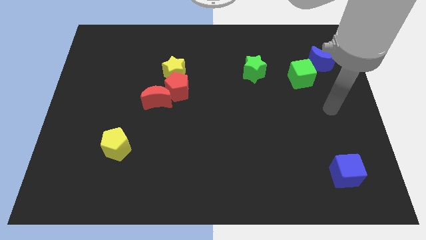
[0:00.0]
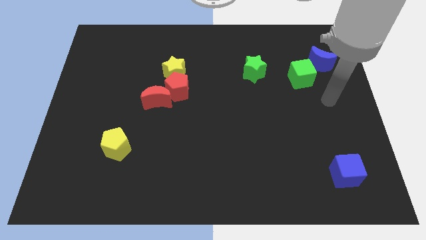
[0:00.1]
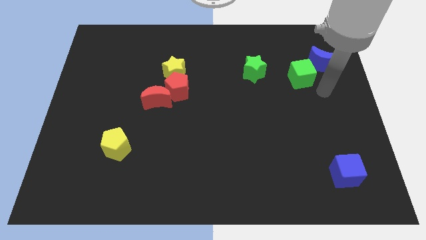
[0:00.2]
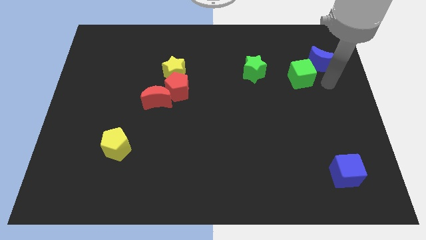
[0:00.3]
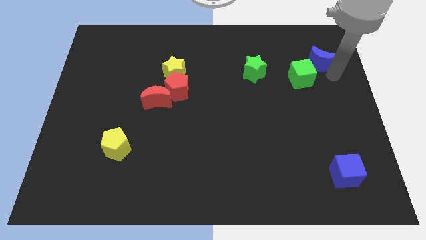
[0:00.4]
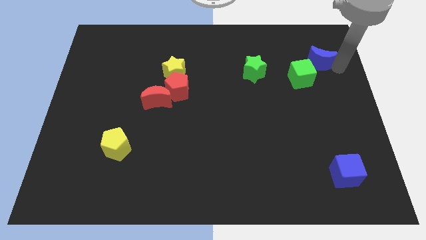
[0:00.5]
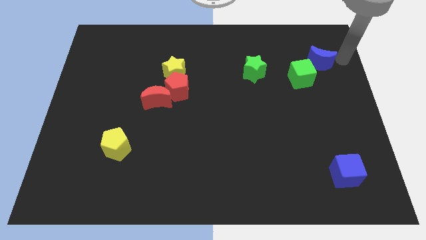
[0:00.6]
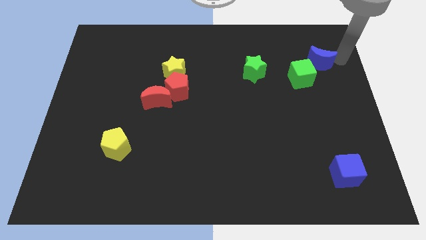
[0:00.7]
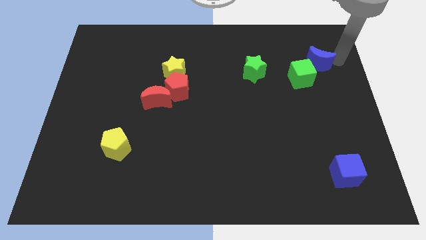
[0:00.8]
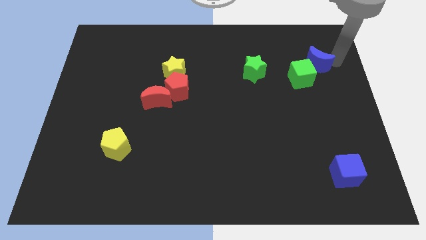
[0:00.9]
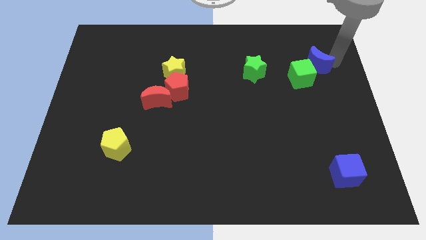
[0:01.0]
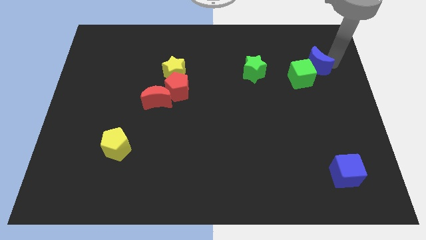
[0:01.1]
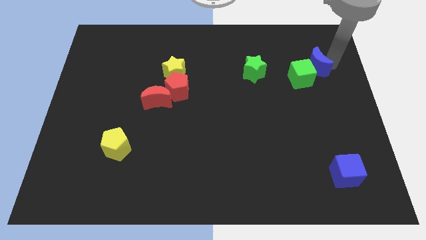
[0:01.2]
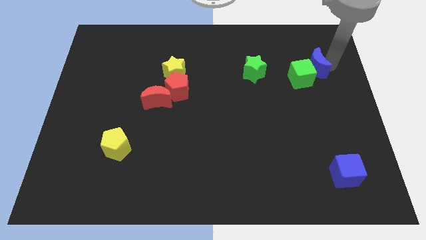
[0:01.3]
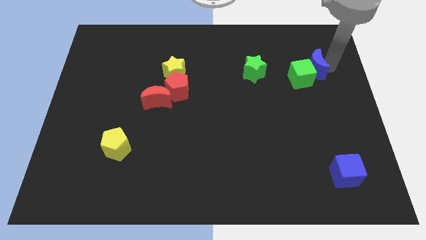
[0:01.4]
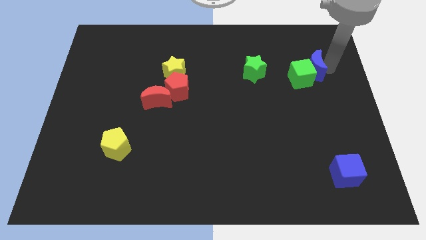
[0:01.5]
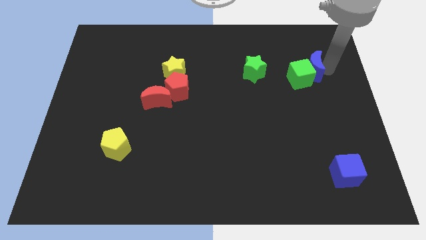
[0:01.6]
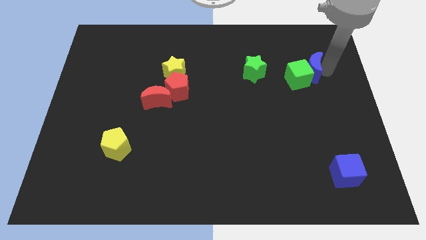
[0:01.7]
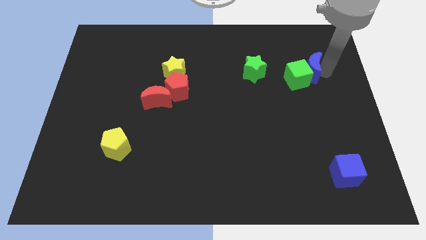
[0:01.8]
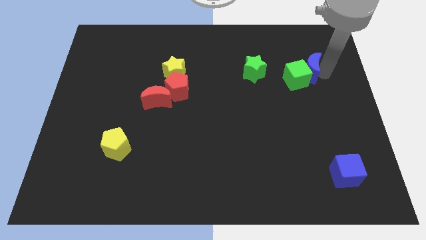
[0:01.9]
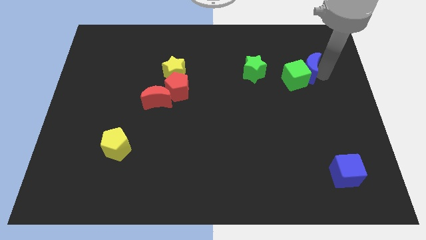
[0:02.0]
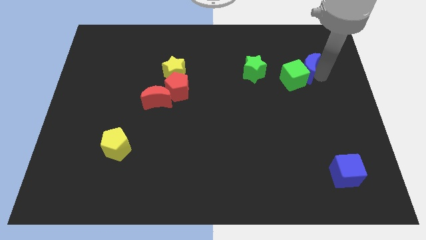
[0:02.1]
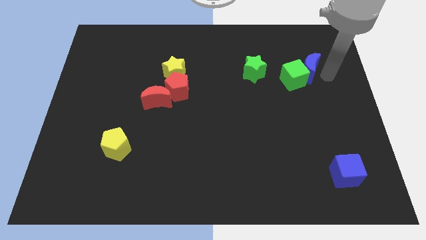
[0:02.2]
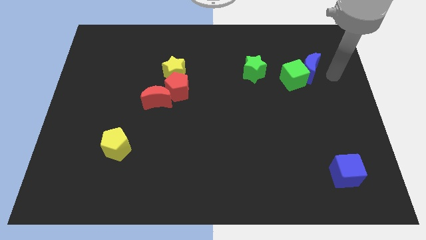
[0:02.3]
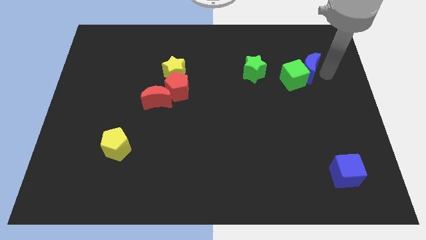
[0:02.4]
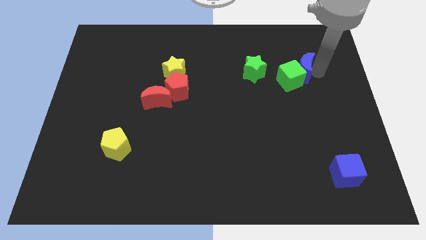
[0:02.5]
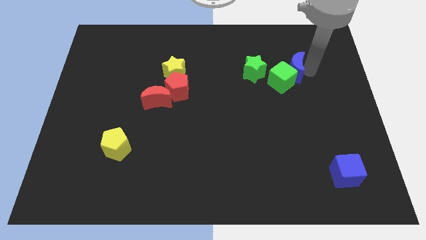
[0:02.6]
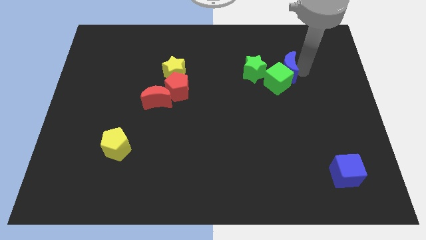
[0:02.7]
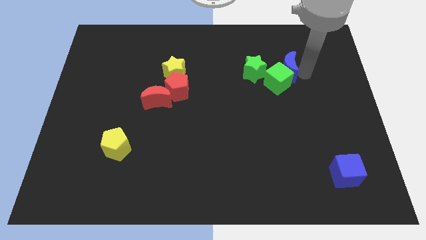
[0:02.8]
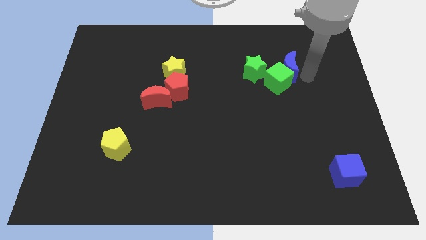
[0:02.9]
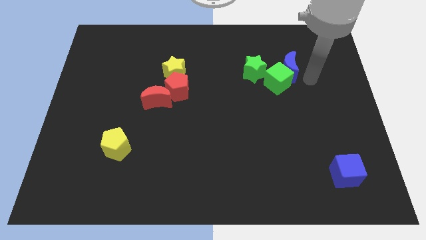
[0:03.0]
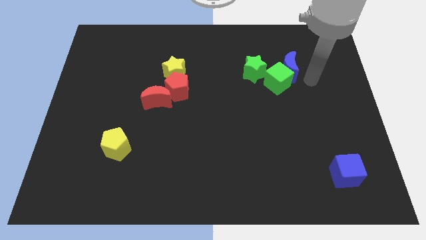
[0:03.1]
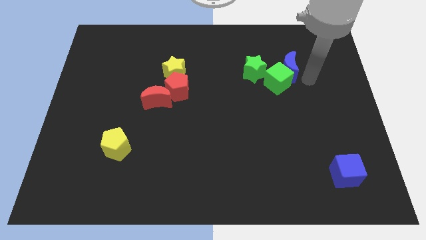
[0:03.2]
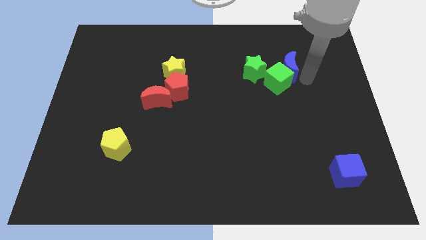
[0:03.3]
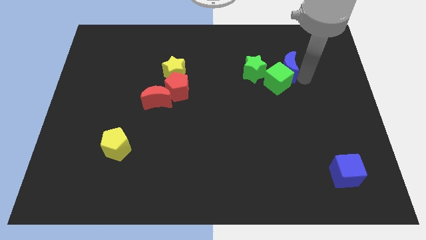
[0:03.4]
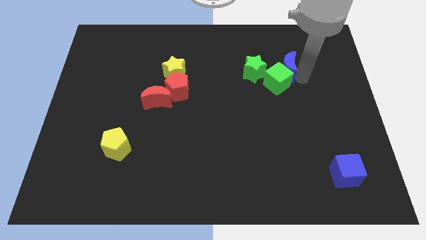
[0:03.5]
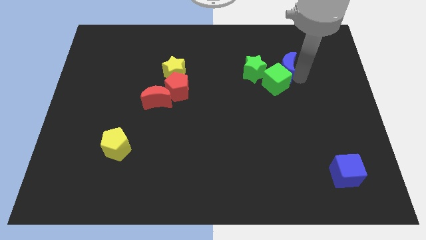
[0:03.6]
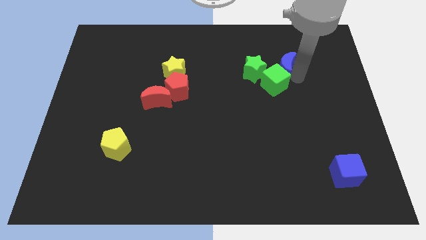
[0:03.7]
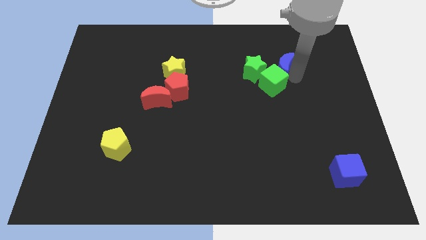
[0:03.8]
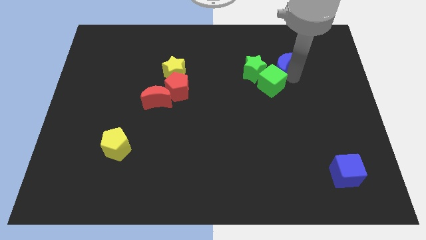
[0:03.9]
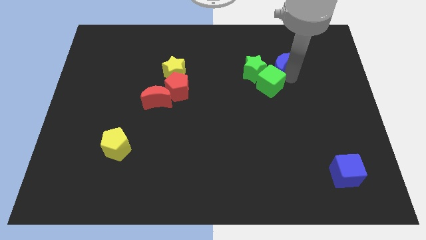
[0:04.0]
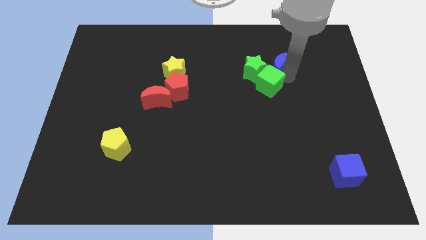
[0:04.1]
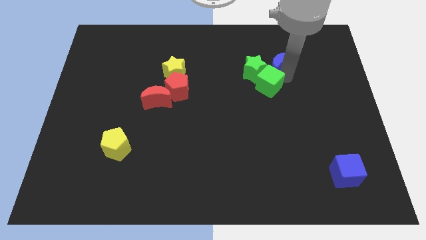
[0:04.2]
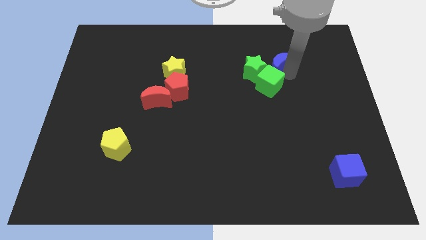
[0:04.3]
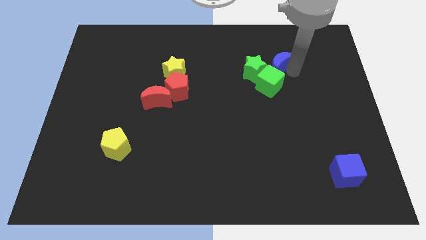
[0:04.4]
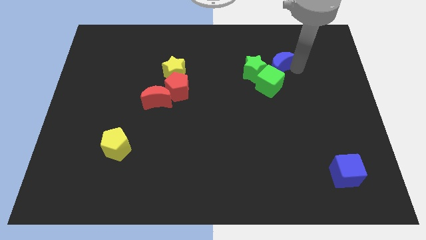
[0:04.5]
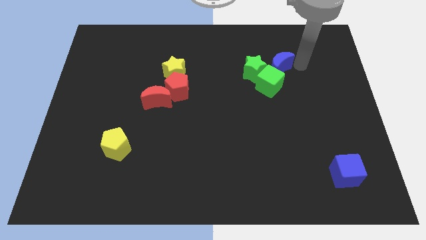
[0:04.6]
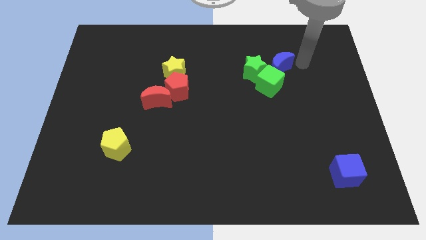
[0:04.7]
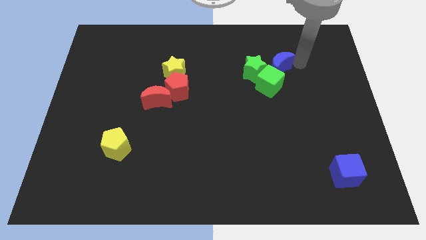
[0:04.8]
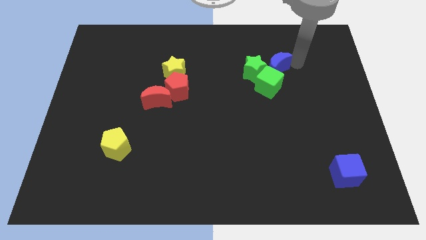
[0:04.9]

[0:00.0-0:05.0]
move the blue moon towards the green star

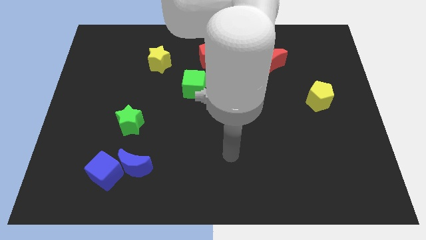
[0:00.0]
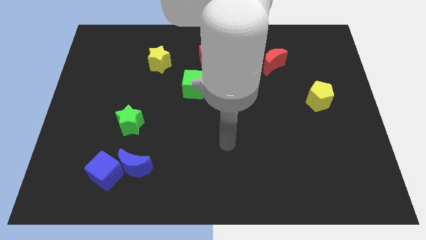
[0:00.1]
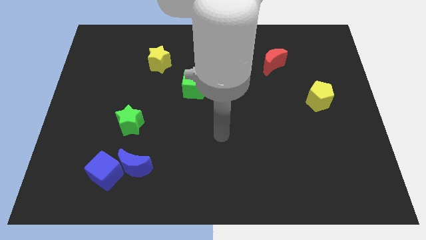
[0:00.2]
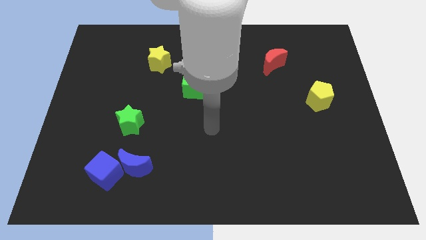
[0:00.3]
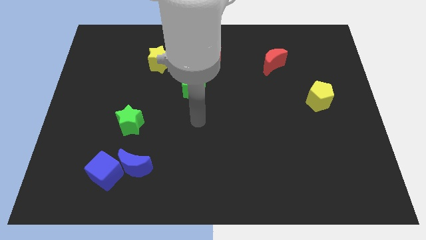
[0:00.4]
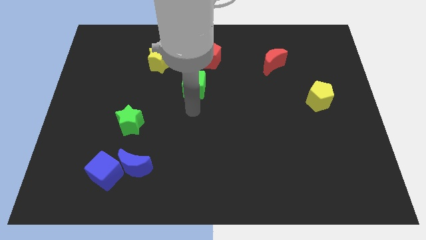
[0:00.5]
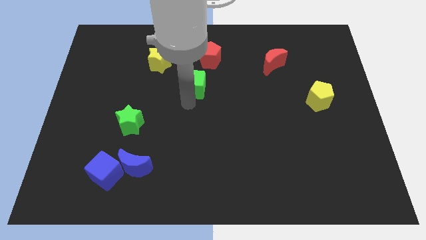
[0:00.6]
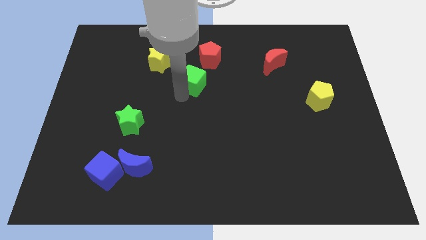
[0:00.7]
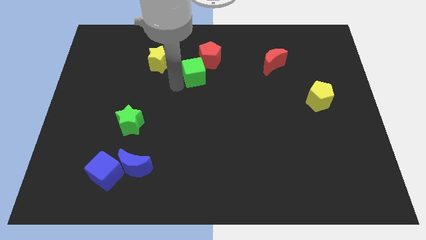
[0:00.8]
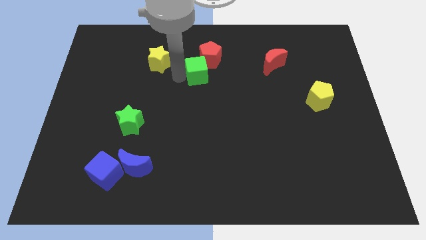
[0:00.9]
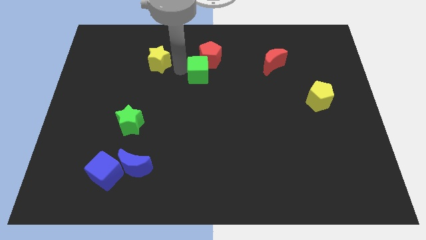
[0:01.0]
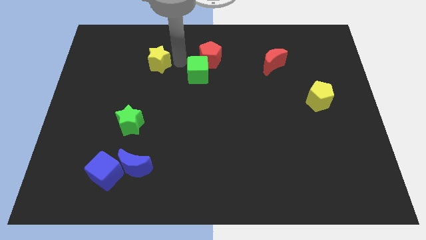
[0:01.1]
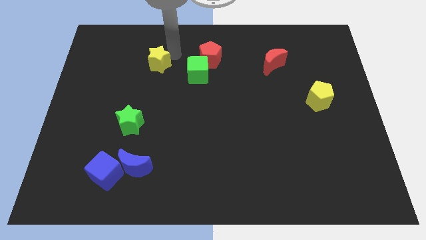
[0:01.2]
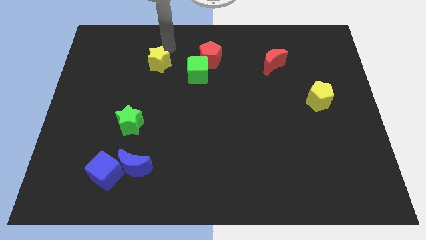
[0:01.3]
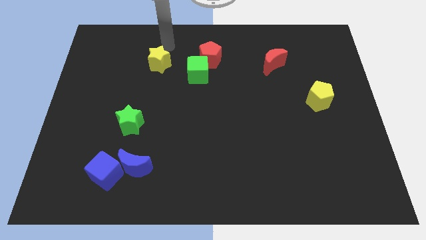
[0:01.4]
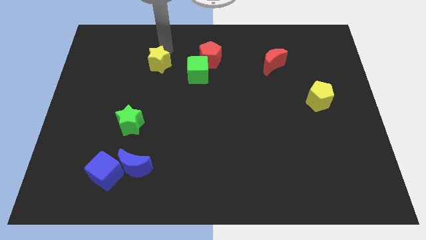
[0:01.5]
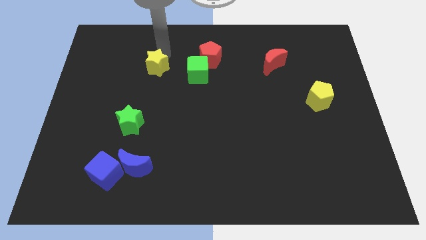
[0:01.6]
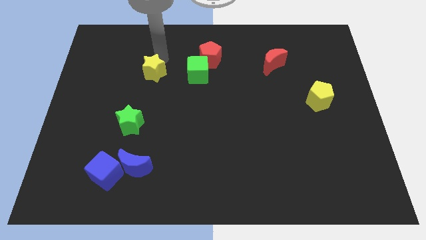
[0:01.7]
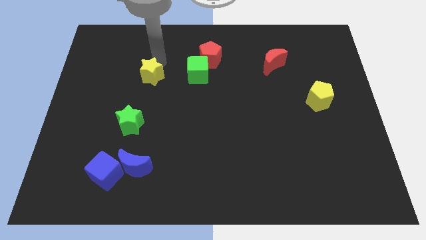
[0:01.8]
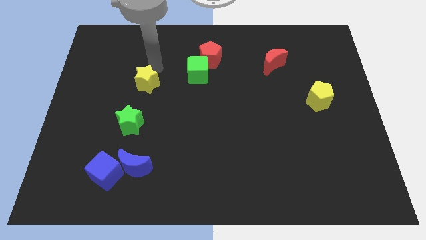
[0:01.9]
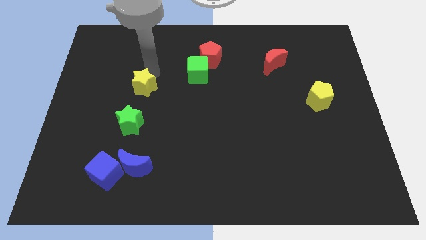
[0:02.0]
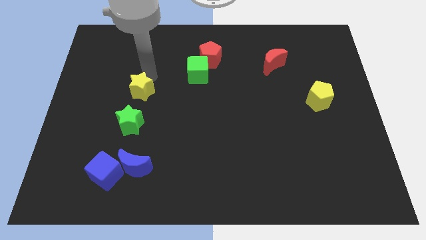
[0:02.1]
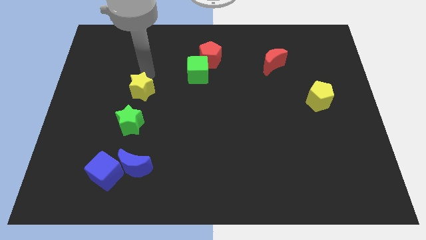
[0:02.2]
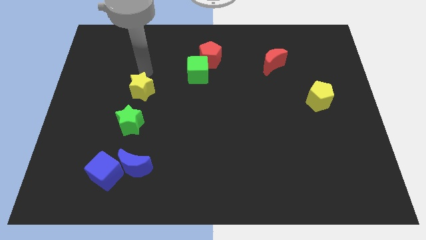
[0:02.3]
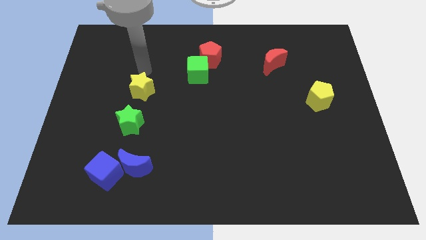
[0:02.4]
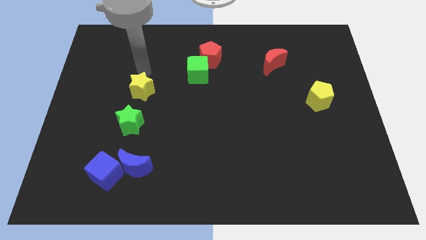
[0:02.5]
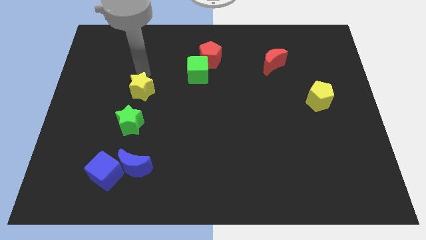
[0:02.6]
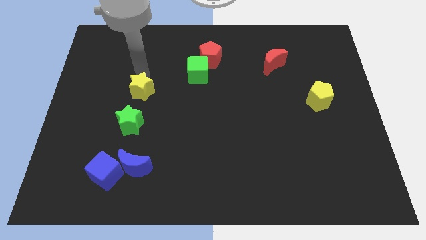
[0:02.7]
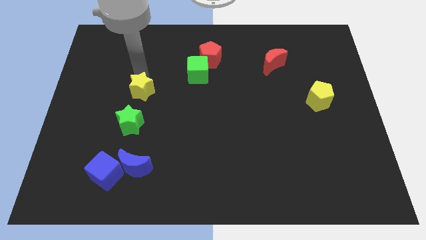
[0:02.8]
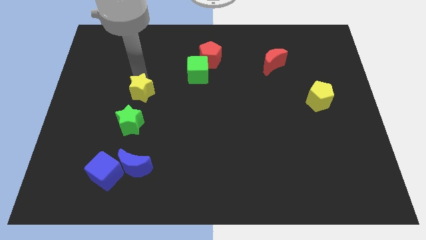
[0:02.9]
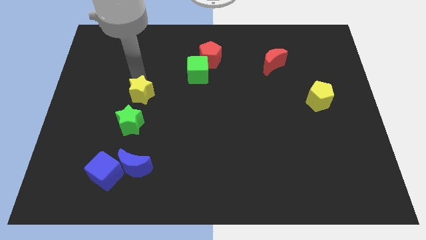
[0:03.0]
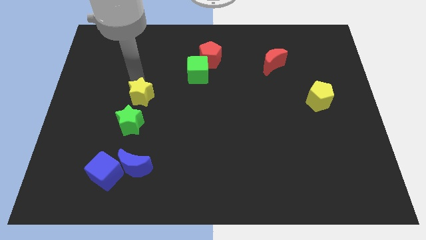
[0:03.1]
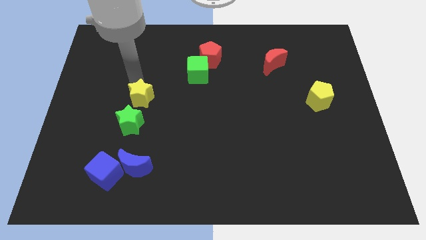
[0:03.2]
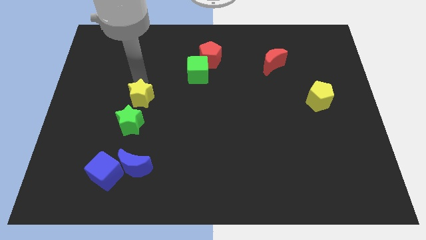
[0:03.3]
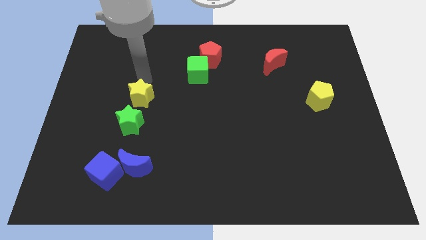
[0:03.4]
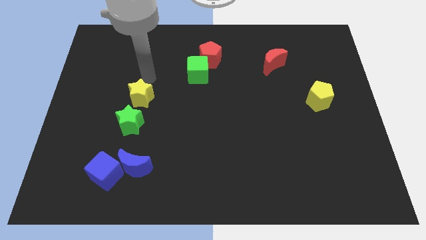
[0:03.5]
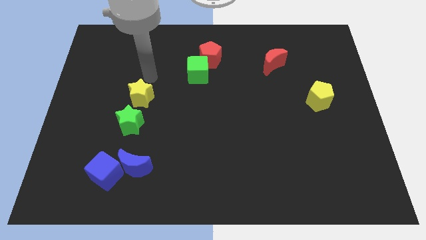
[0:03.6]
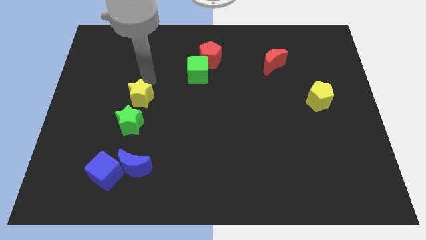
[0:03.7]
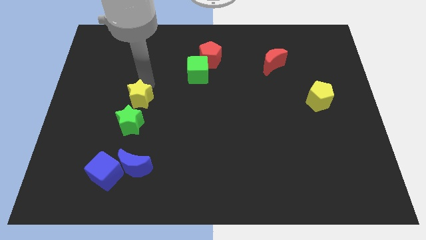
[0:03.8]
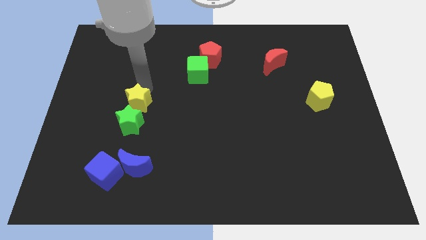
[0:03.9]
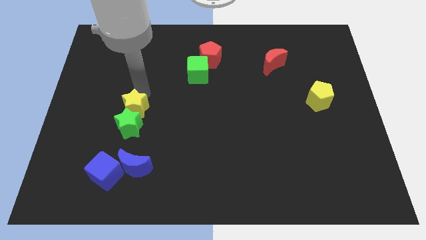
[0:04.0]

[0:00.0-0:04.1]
slide the yellow star to the green star
